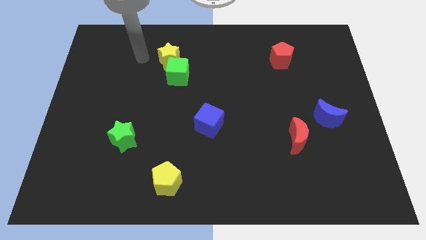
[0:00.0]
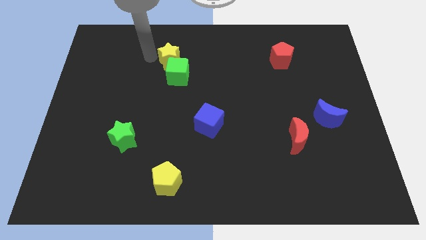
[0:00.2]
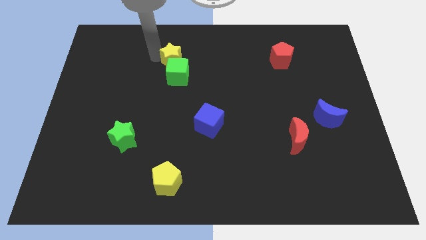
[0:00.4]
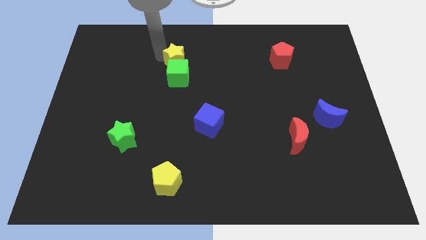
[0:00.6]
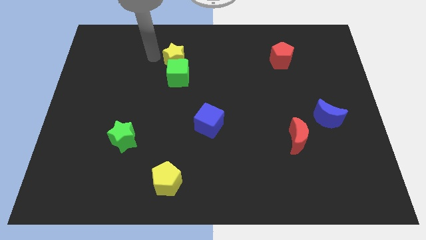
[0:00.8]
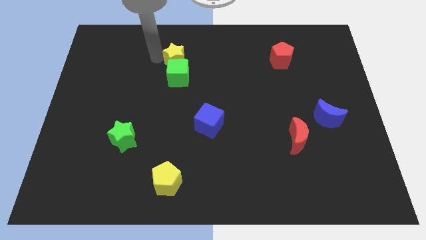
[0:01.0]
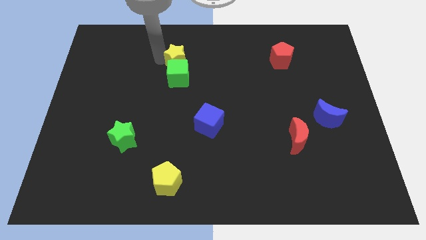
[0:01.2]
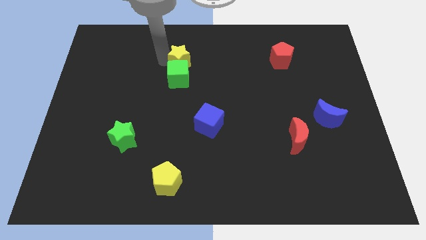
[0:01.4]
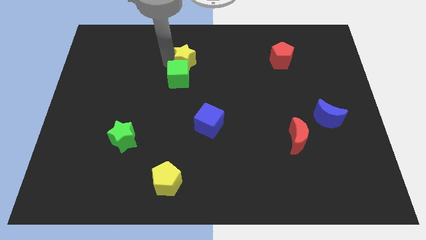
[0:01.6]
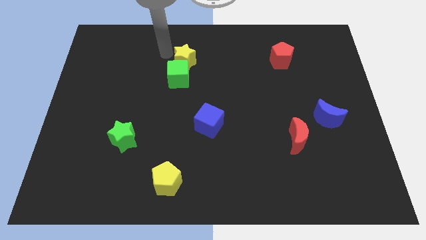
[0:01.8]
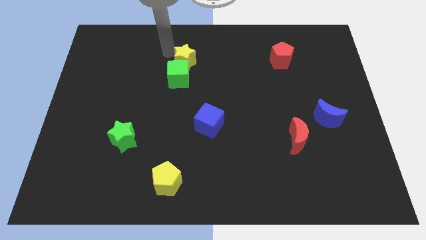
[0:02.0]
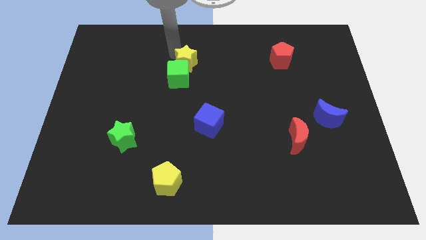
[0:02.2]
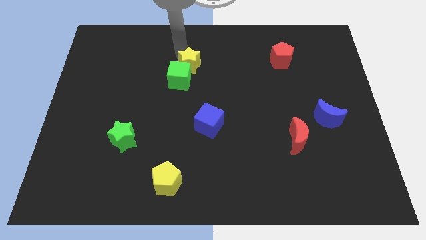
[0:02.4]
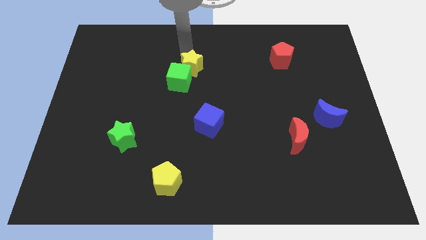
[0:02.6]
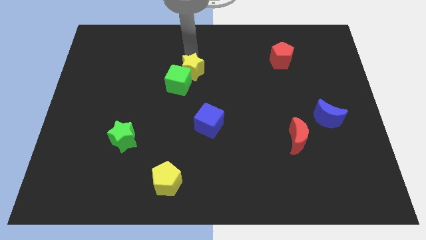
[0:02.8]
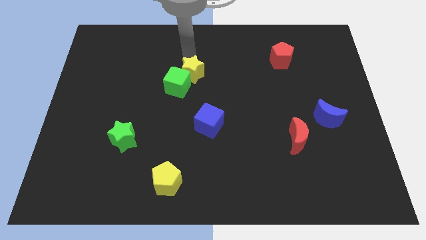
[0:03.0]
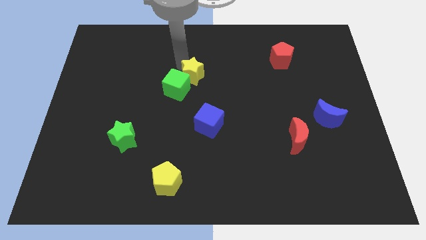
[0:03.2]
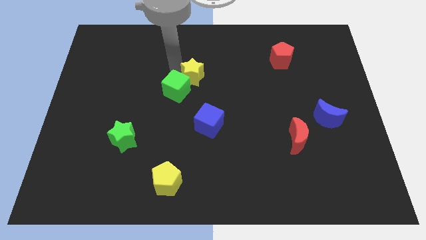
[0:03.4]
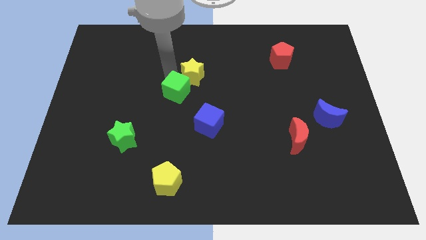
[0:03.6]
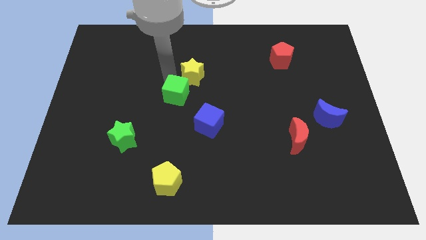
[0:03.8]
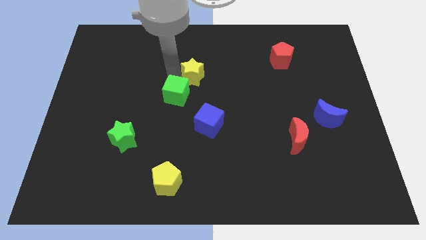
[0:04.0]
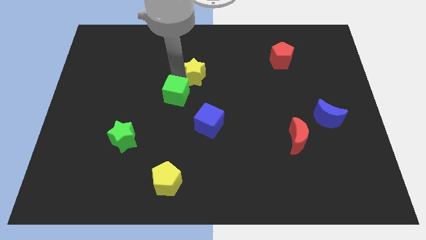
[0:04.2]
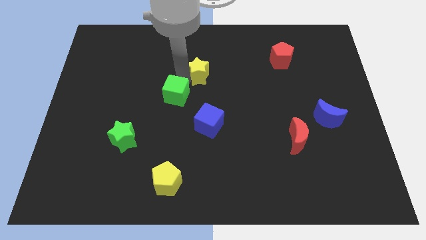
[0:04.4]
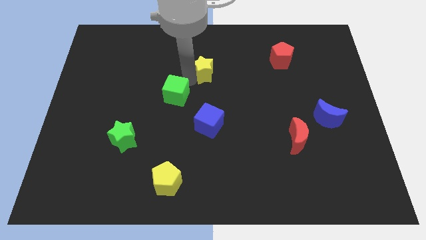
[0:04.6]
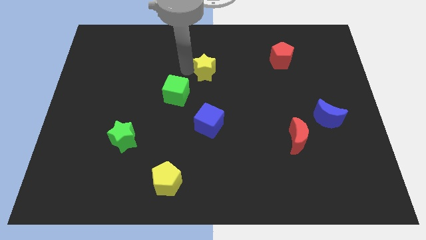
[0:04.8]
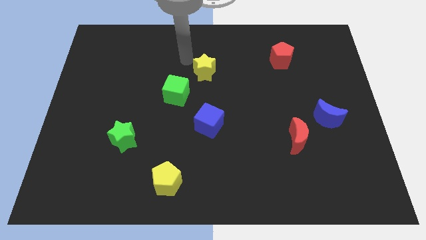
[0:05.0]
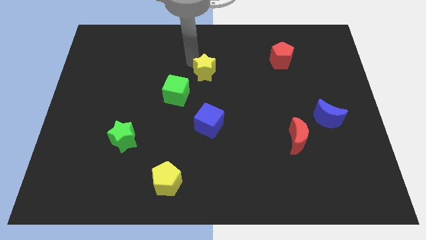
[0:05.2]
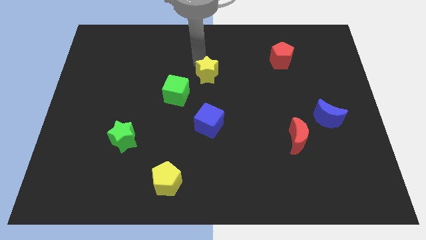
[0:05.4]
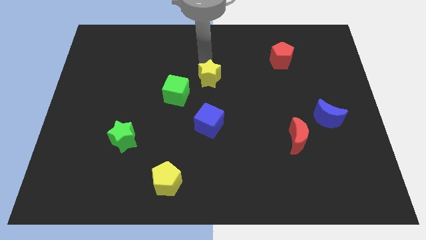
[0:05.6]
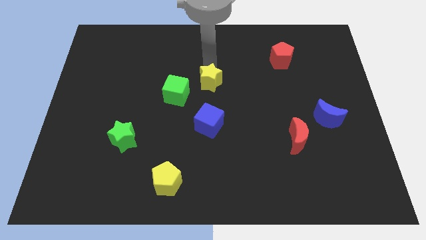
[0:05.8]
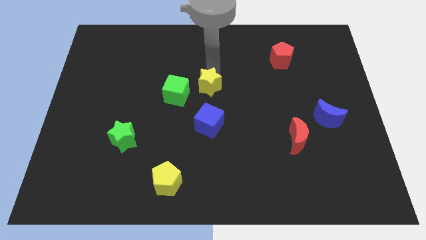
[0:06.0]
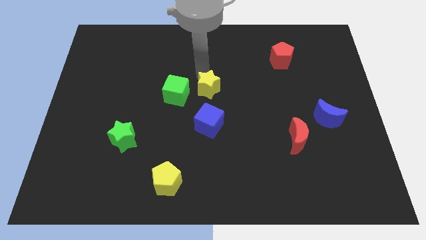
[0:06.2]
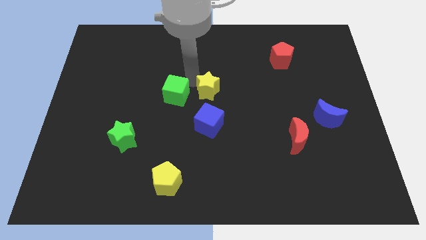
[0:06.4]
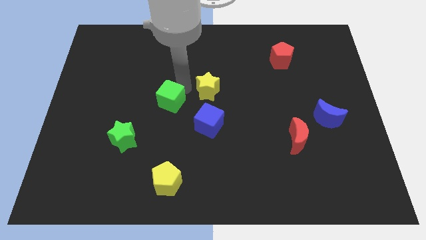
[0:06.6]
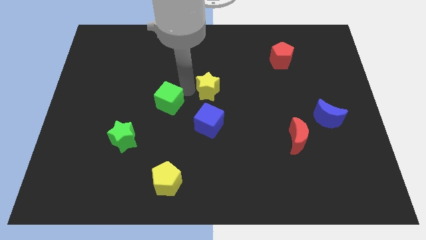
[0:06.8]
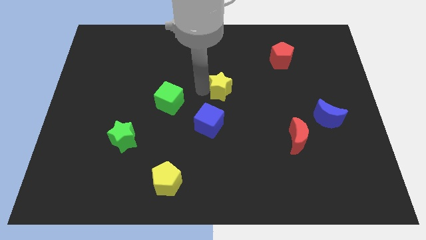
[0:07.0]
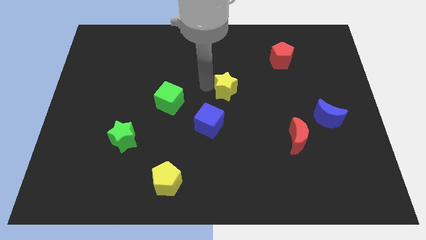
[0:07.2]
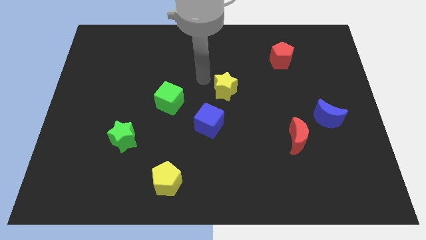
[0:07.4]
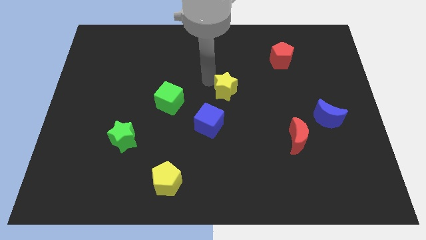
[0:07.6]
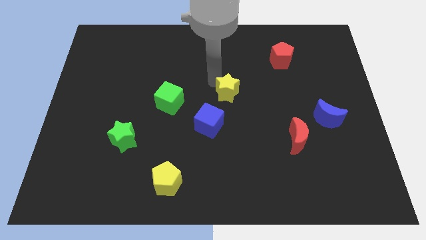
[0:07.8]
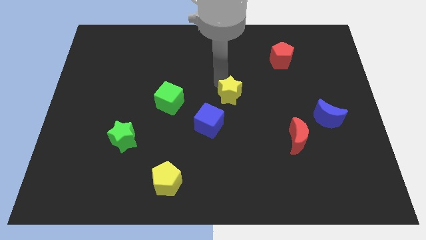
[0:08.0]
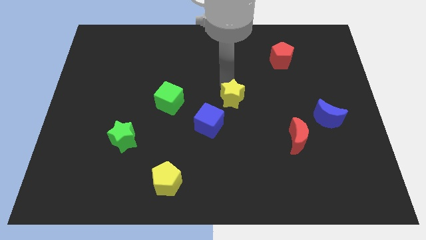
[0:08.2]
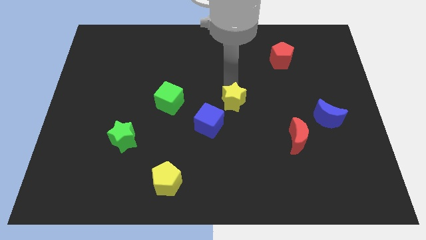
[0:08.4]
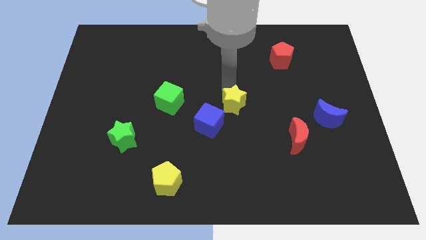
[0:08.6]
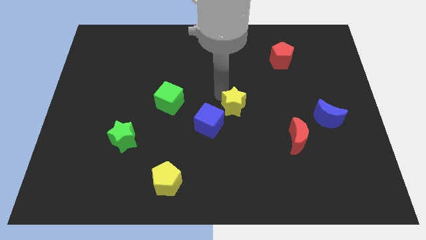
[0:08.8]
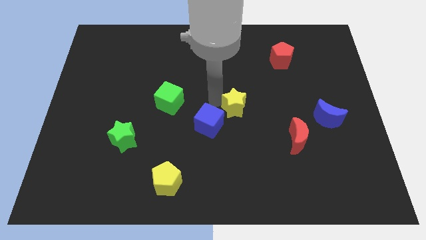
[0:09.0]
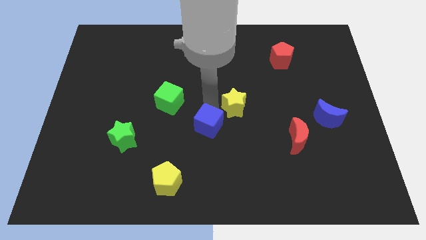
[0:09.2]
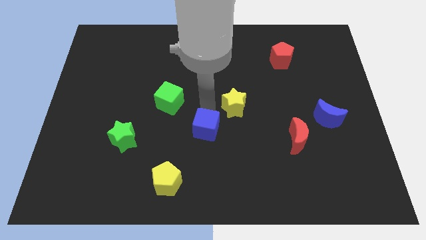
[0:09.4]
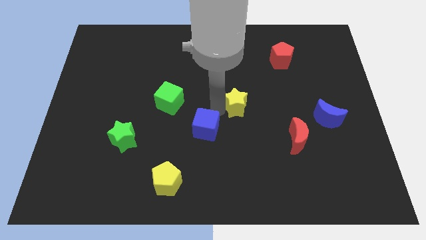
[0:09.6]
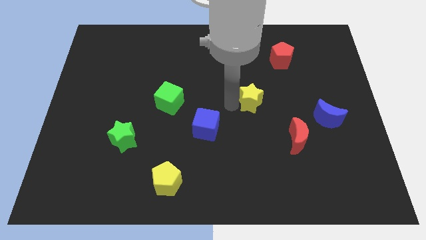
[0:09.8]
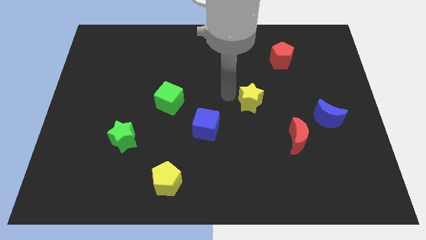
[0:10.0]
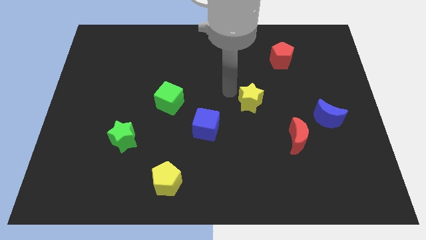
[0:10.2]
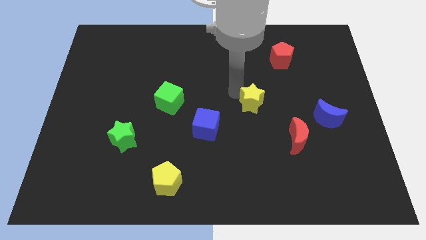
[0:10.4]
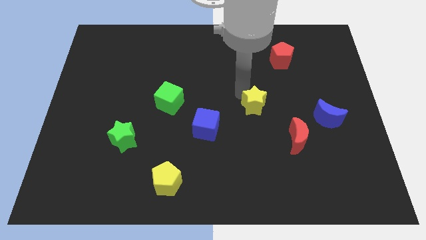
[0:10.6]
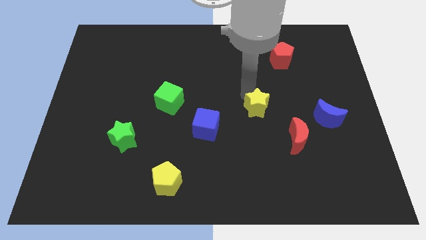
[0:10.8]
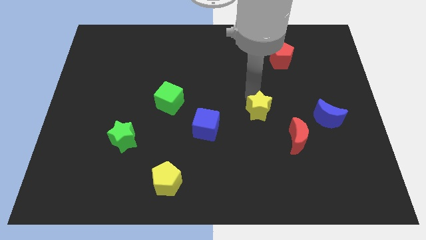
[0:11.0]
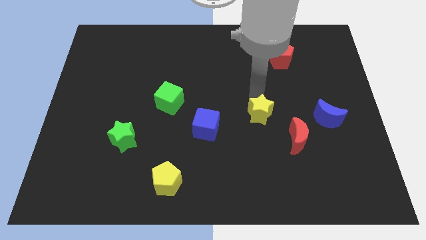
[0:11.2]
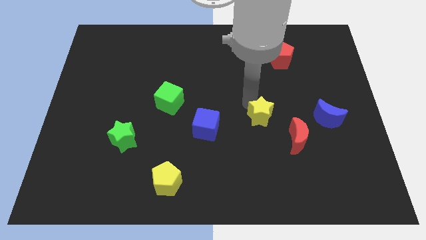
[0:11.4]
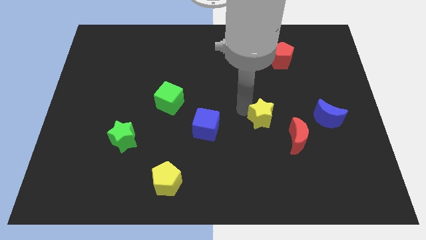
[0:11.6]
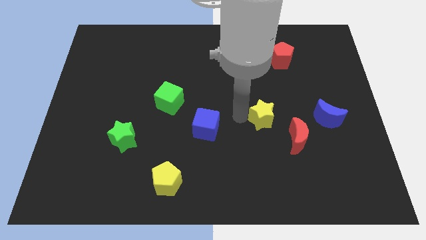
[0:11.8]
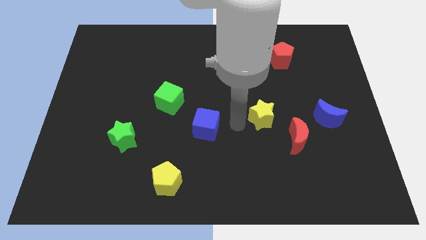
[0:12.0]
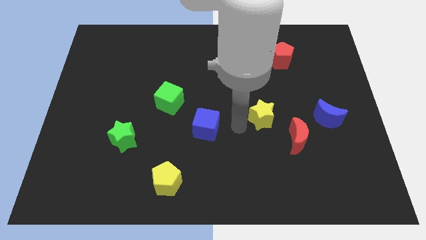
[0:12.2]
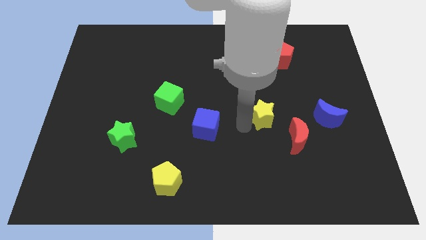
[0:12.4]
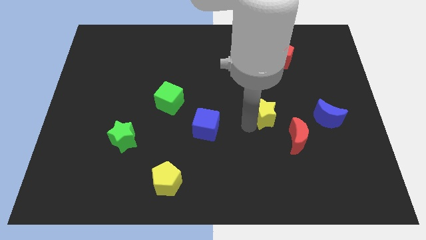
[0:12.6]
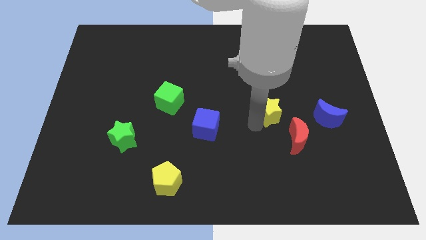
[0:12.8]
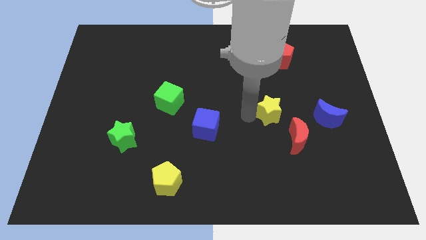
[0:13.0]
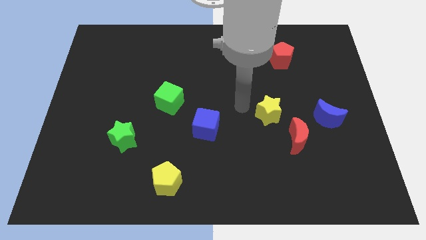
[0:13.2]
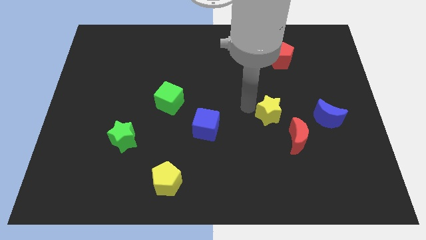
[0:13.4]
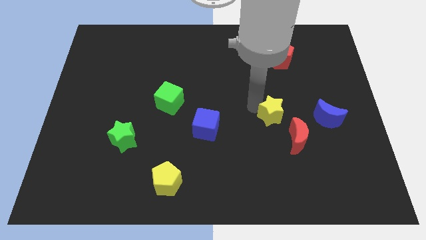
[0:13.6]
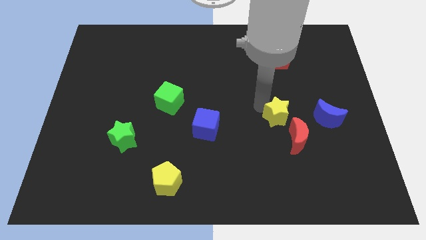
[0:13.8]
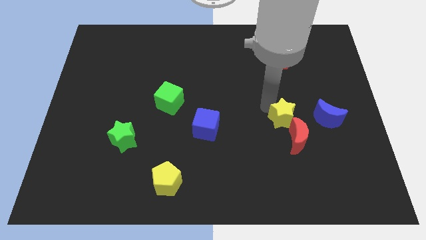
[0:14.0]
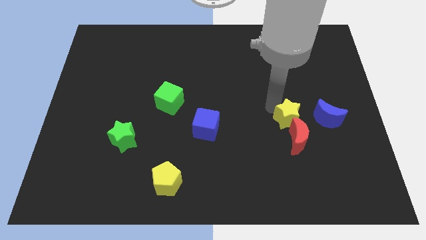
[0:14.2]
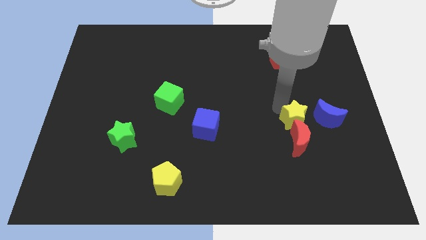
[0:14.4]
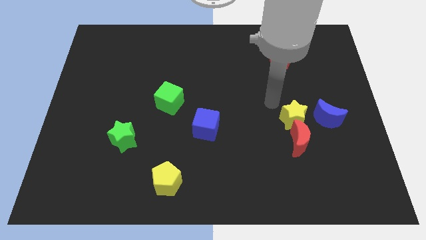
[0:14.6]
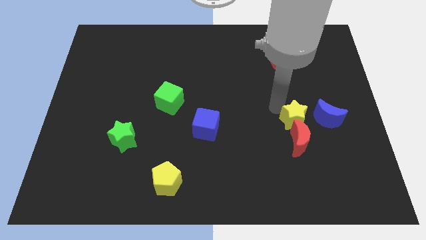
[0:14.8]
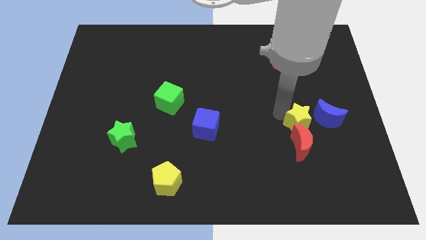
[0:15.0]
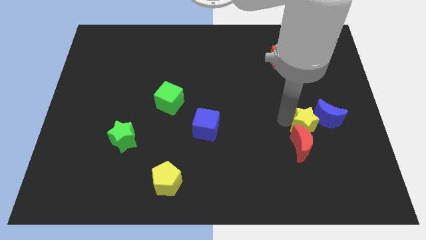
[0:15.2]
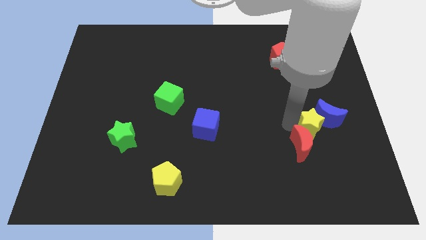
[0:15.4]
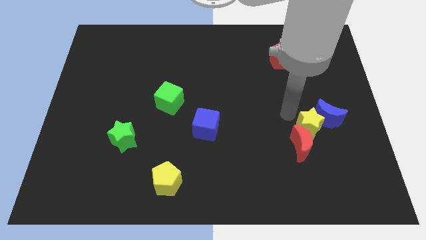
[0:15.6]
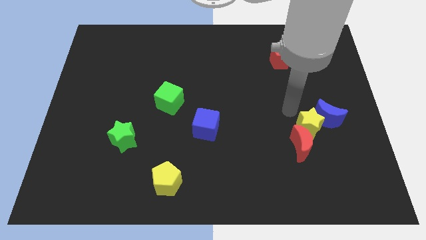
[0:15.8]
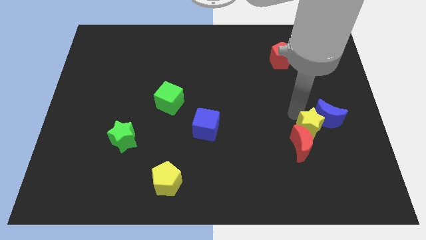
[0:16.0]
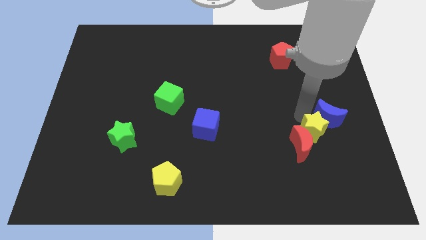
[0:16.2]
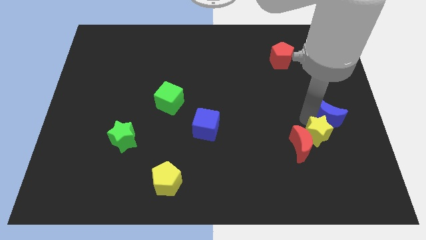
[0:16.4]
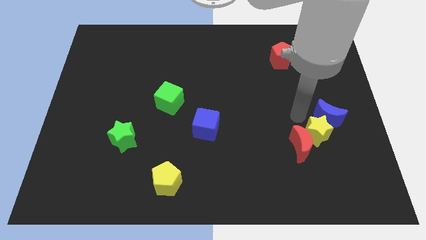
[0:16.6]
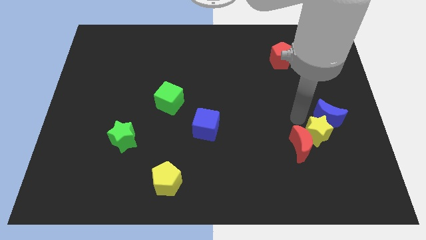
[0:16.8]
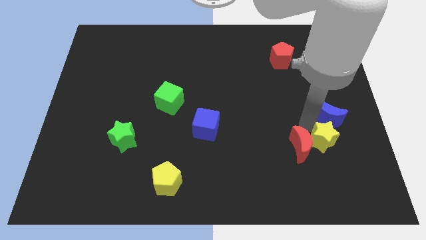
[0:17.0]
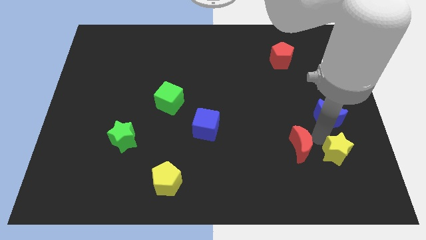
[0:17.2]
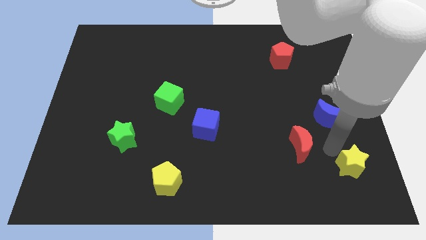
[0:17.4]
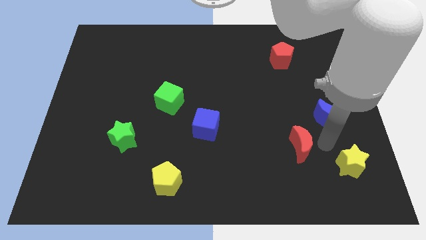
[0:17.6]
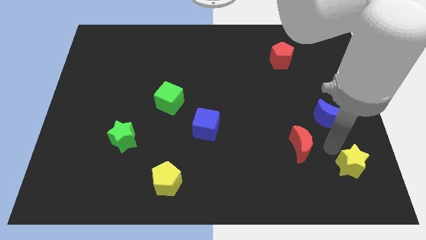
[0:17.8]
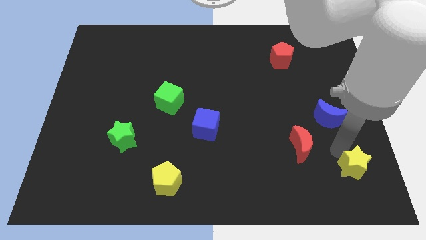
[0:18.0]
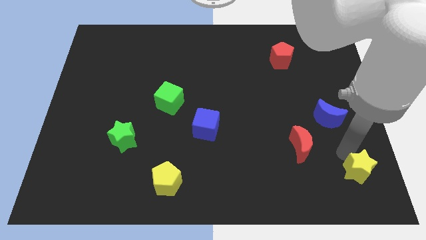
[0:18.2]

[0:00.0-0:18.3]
slide the yellow star to the lower right corner
